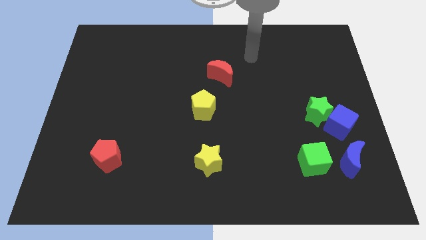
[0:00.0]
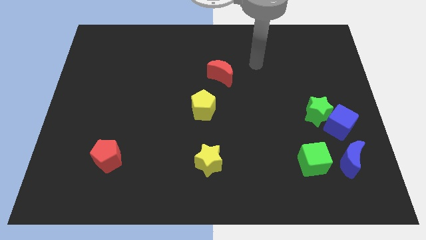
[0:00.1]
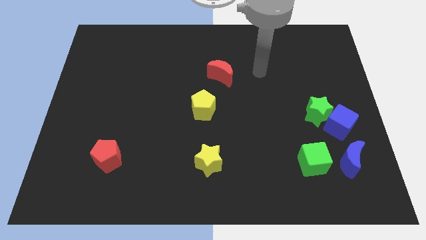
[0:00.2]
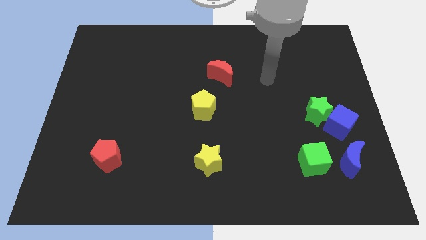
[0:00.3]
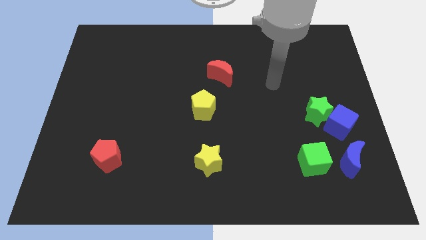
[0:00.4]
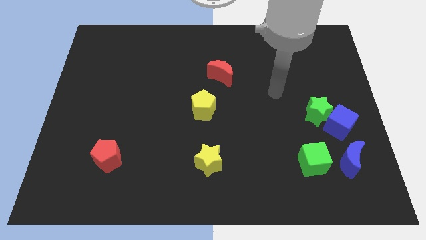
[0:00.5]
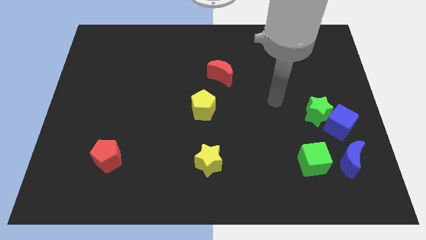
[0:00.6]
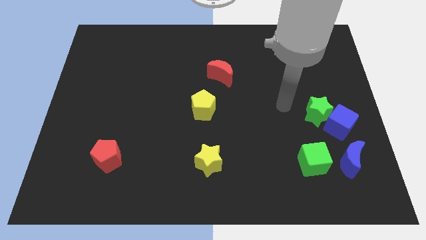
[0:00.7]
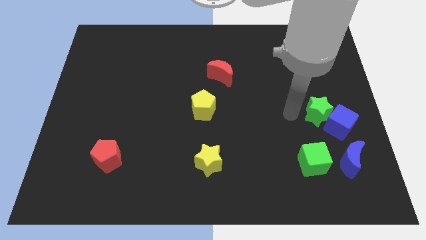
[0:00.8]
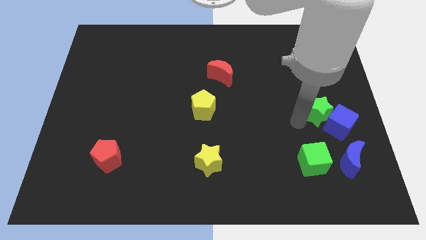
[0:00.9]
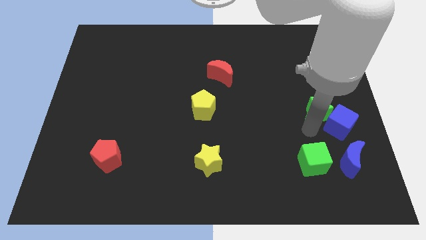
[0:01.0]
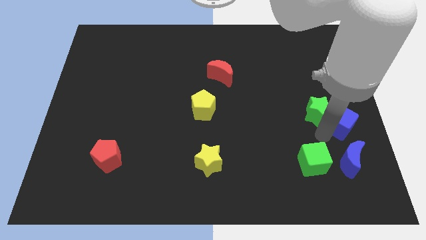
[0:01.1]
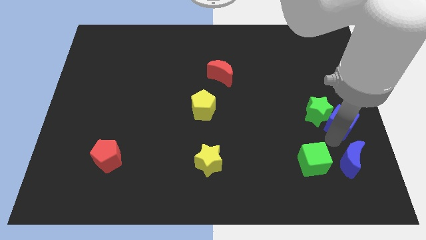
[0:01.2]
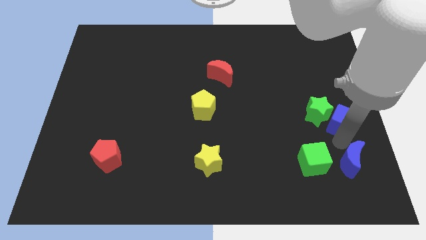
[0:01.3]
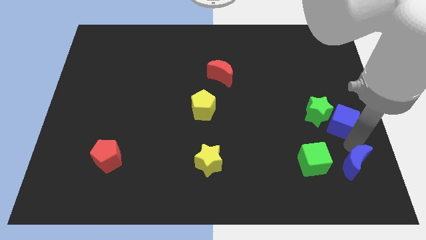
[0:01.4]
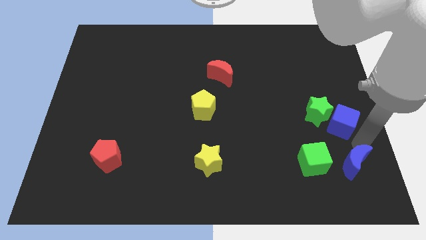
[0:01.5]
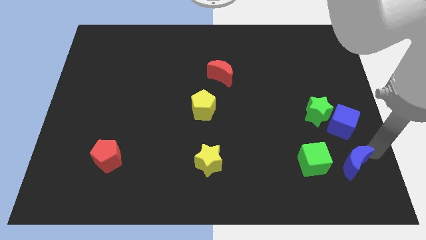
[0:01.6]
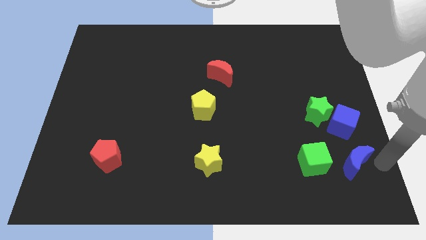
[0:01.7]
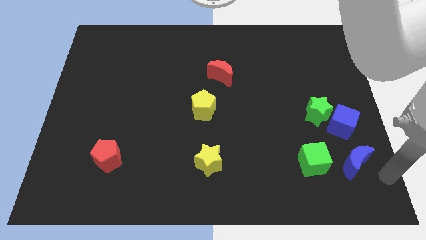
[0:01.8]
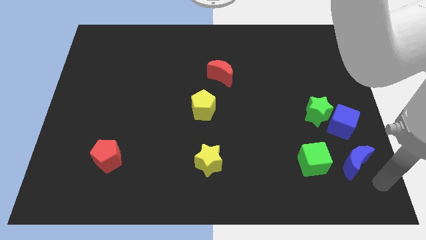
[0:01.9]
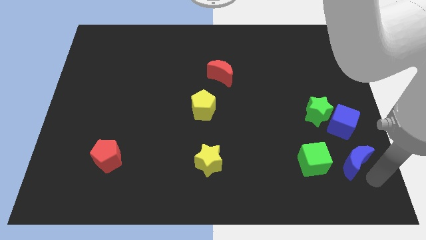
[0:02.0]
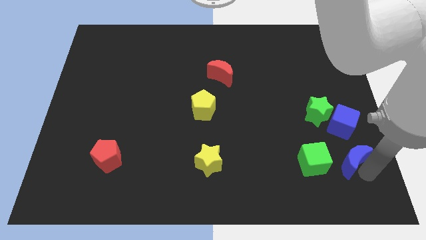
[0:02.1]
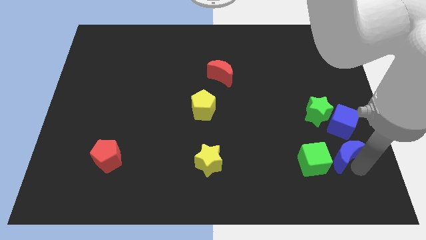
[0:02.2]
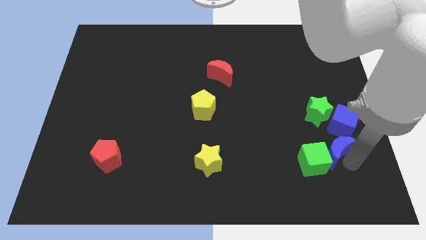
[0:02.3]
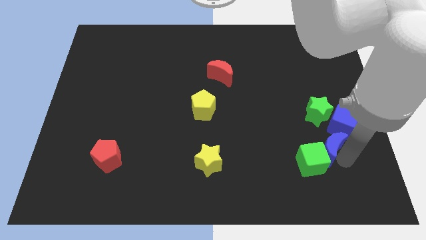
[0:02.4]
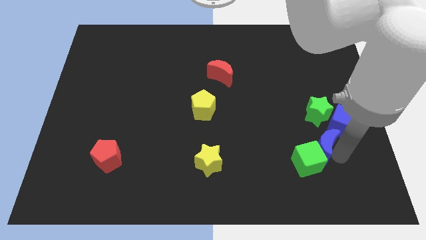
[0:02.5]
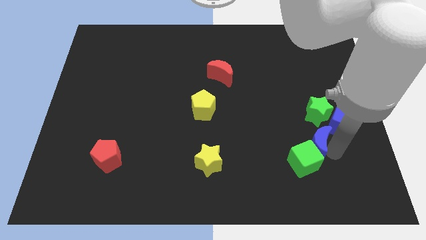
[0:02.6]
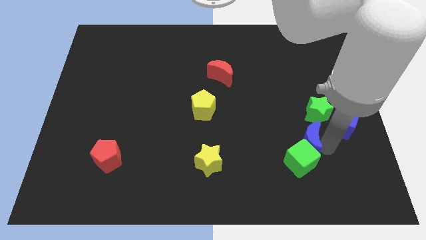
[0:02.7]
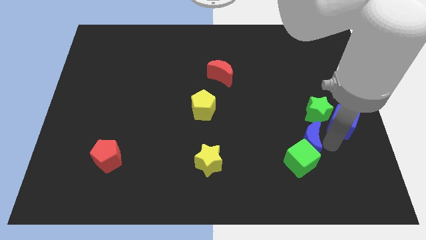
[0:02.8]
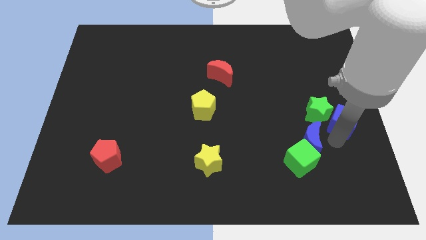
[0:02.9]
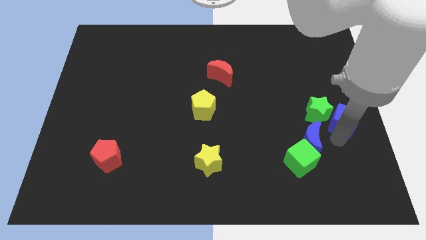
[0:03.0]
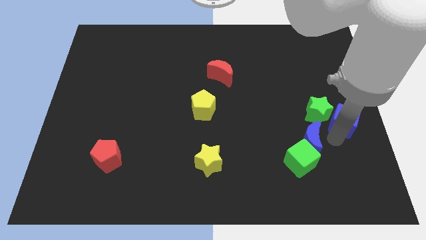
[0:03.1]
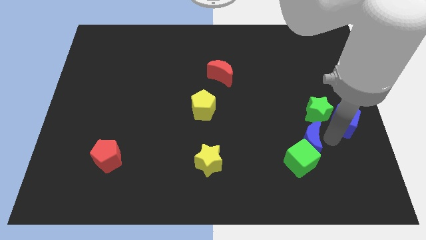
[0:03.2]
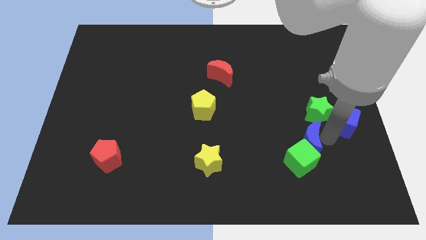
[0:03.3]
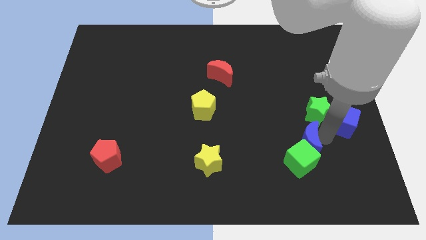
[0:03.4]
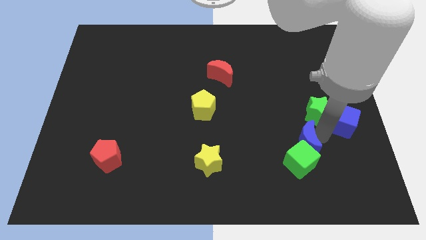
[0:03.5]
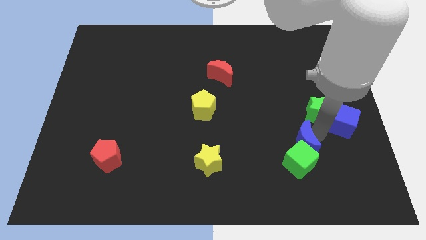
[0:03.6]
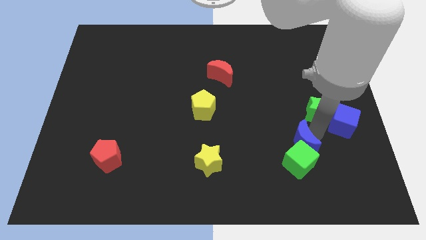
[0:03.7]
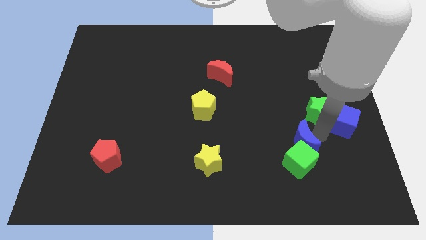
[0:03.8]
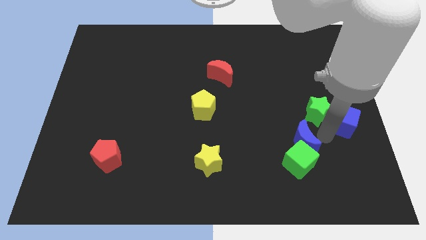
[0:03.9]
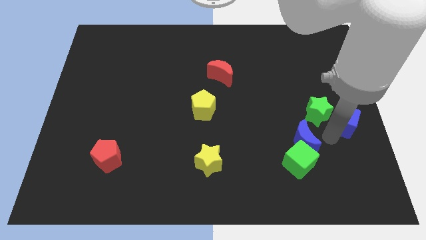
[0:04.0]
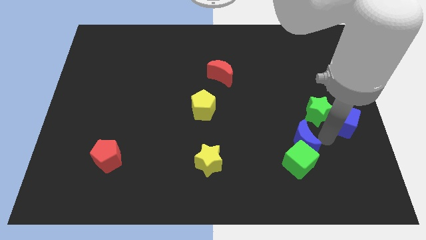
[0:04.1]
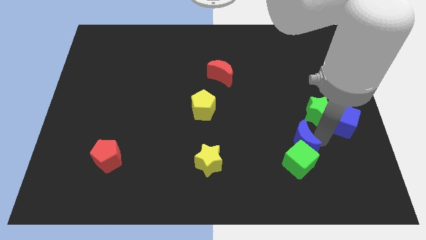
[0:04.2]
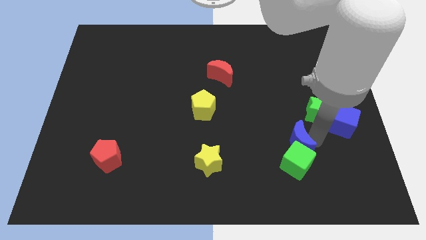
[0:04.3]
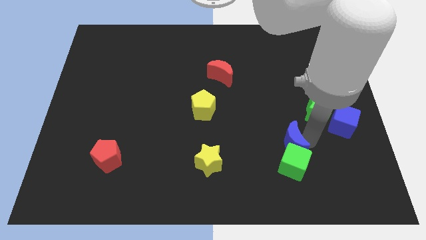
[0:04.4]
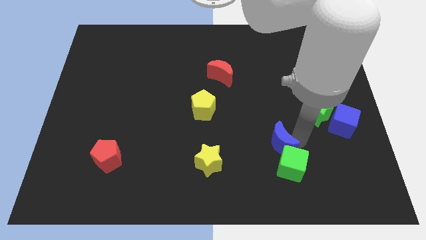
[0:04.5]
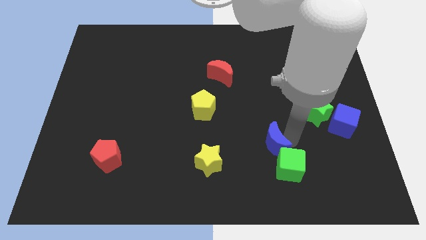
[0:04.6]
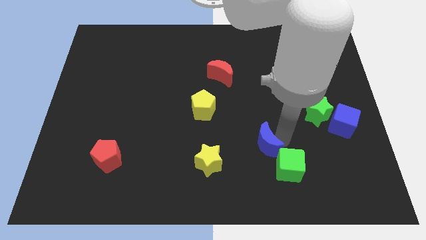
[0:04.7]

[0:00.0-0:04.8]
push the blue moon right of the yellow star

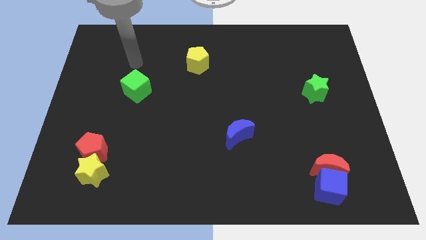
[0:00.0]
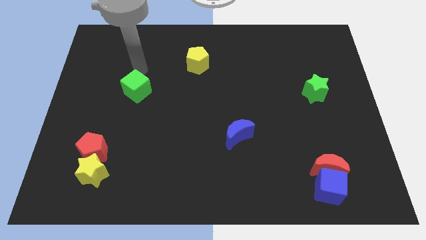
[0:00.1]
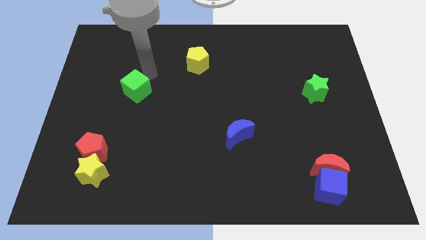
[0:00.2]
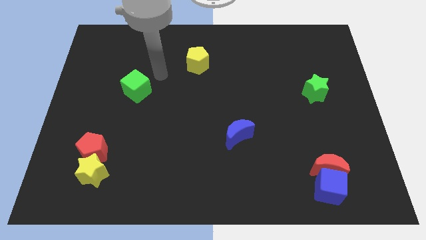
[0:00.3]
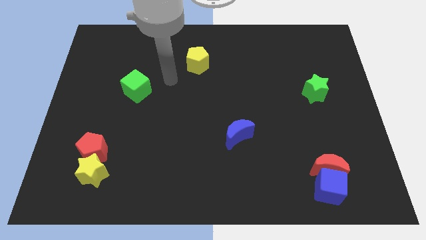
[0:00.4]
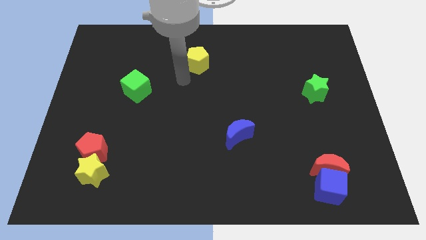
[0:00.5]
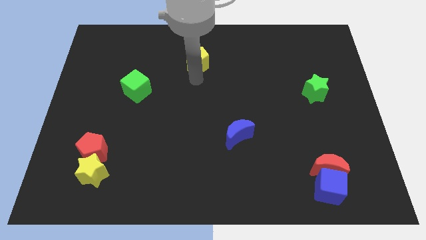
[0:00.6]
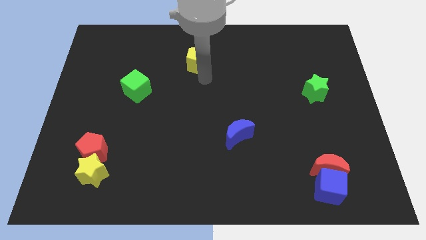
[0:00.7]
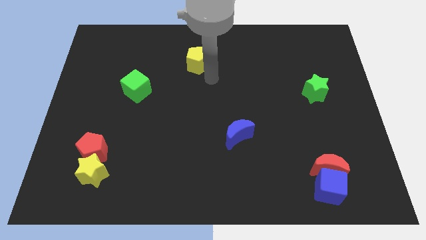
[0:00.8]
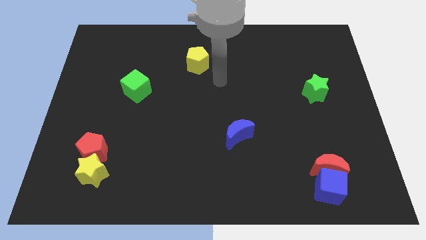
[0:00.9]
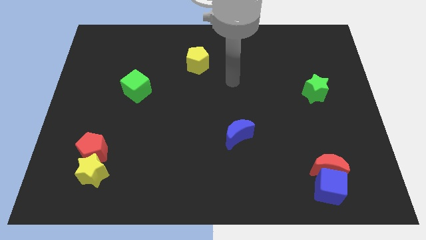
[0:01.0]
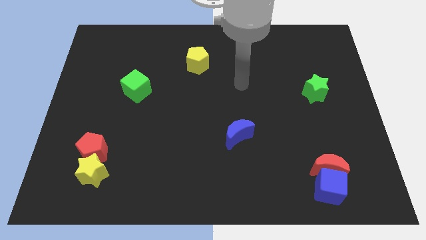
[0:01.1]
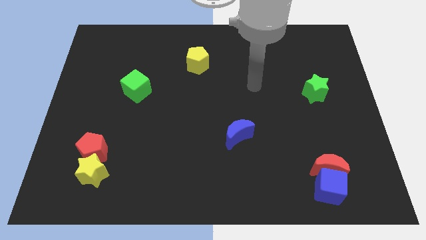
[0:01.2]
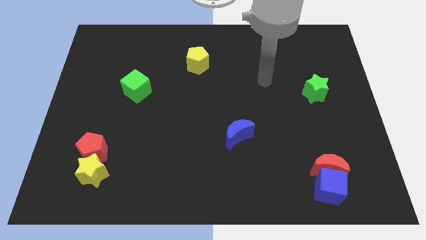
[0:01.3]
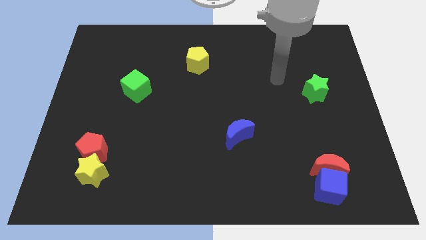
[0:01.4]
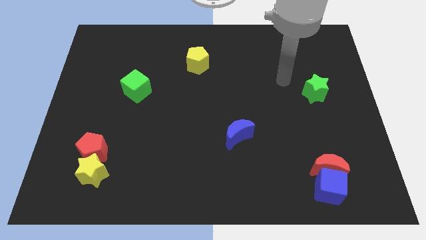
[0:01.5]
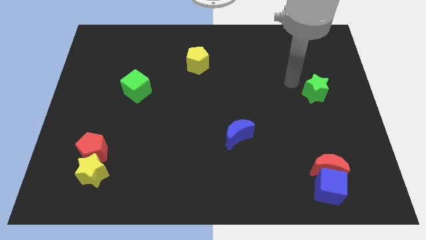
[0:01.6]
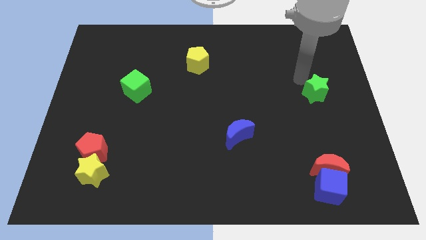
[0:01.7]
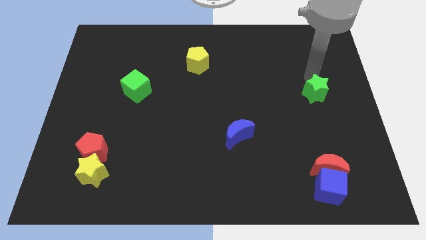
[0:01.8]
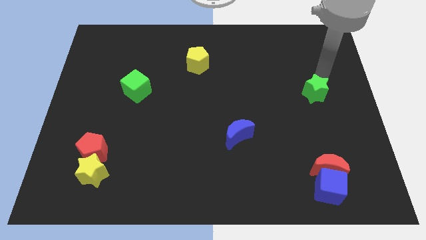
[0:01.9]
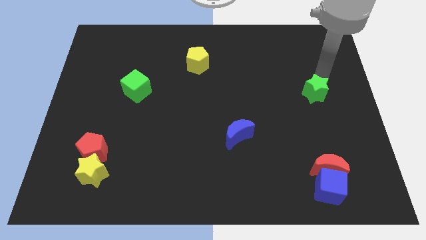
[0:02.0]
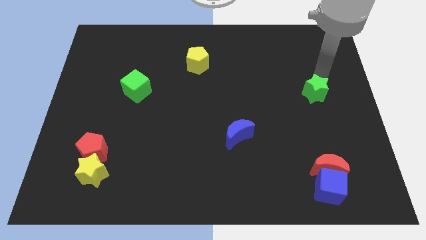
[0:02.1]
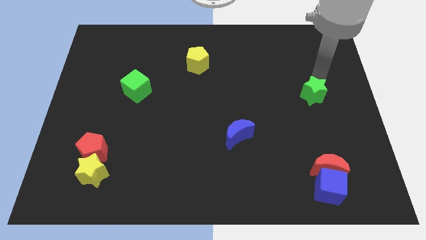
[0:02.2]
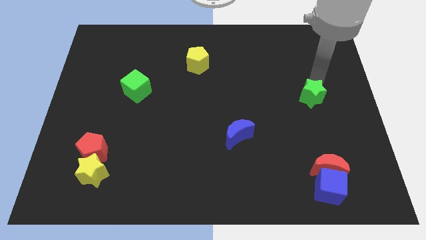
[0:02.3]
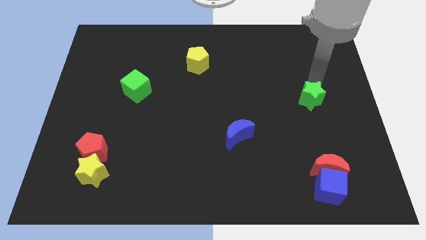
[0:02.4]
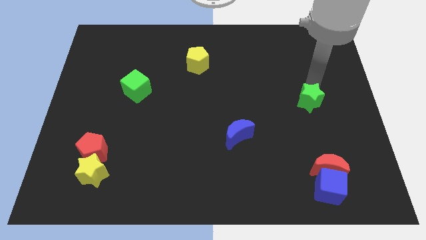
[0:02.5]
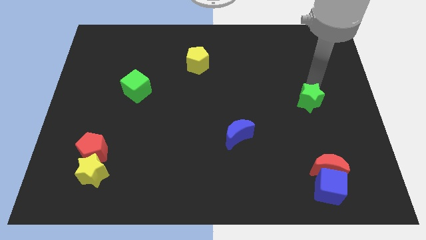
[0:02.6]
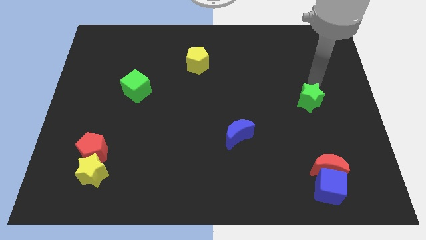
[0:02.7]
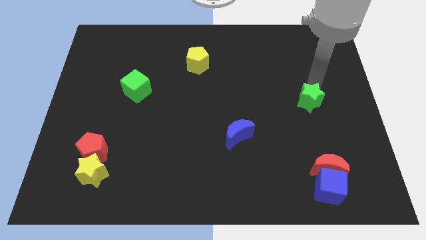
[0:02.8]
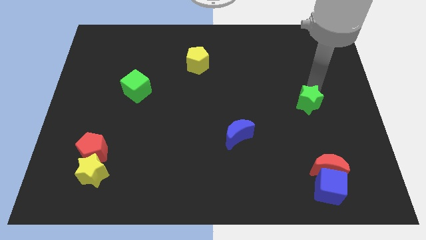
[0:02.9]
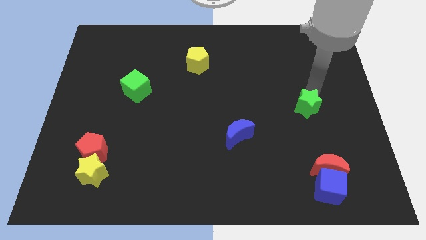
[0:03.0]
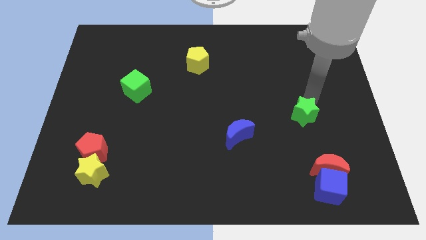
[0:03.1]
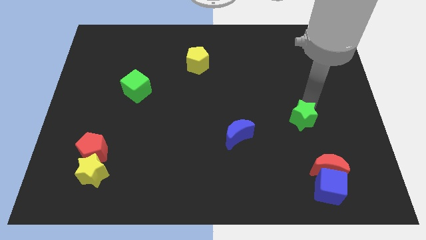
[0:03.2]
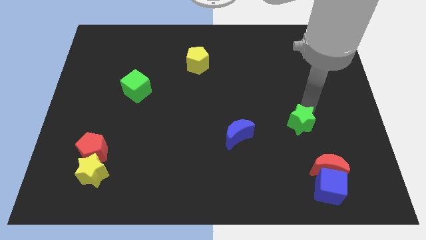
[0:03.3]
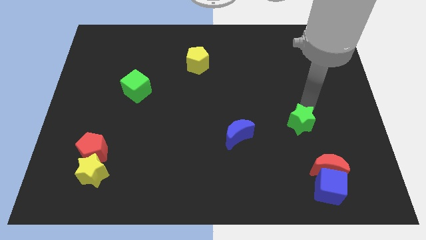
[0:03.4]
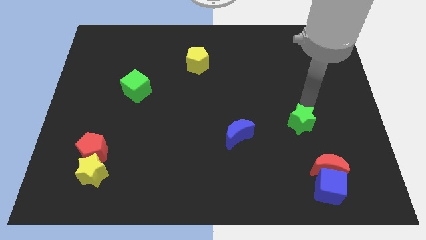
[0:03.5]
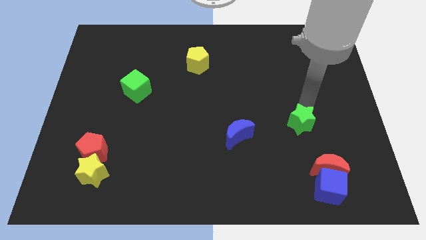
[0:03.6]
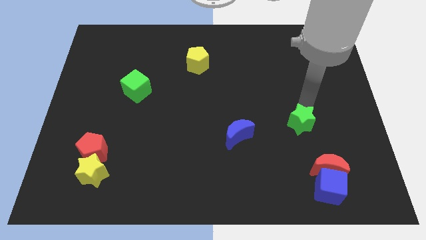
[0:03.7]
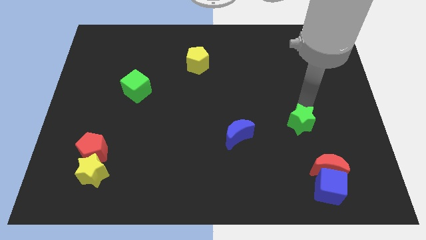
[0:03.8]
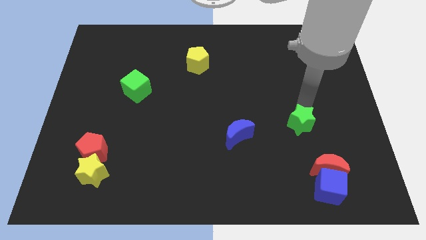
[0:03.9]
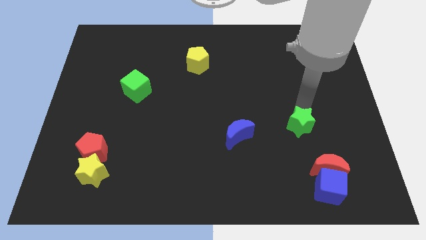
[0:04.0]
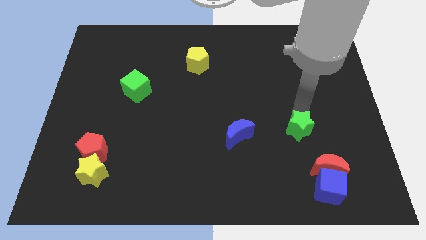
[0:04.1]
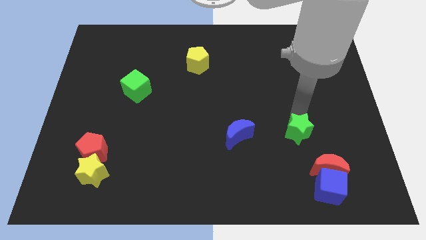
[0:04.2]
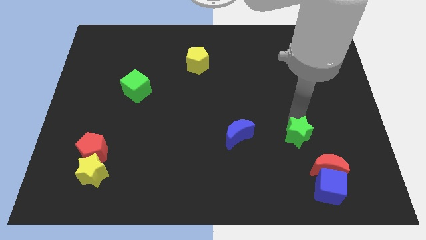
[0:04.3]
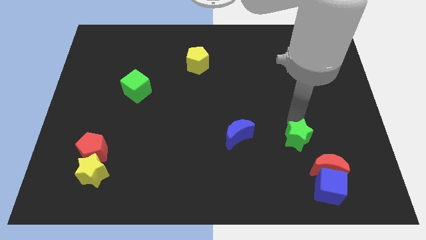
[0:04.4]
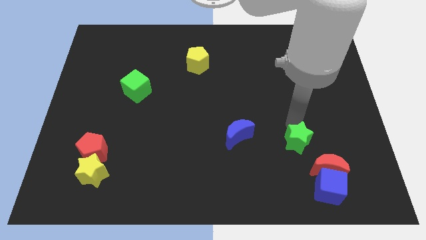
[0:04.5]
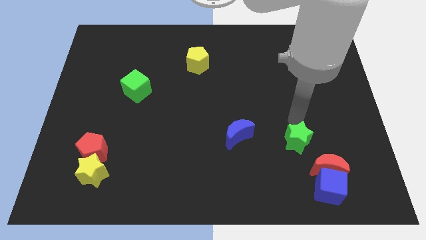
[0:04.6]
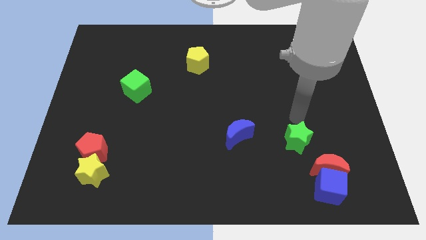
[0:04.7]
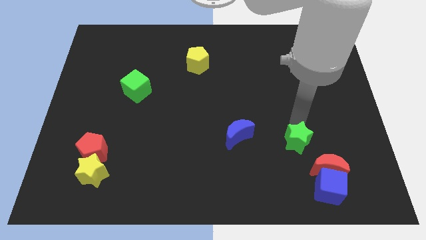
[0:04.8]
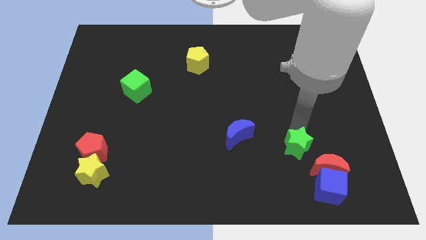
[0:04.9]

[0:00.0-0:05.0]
move the green star to the top left of the blue cube
